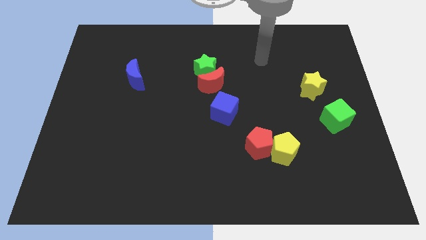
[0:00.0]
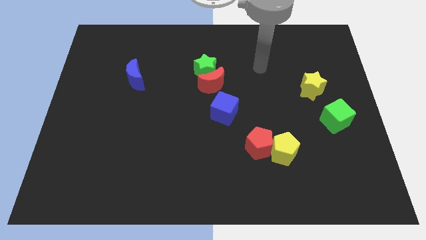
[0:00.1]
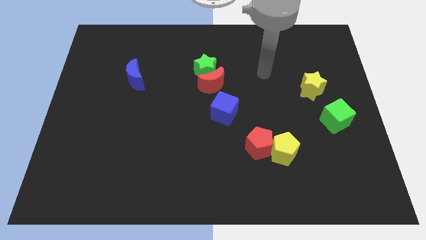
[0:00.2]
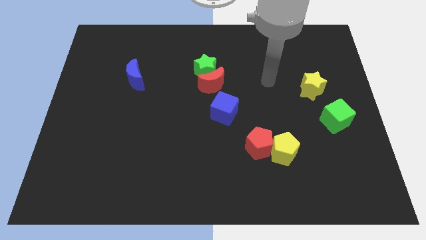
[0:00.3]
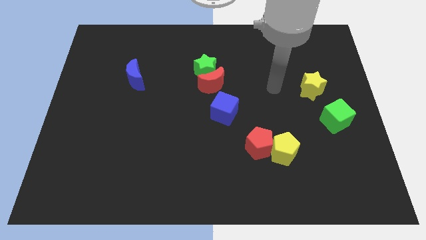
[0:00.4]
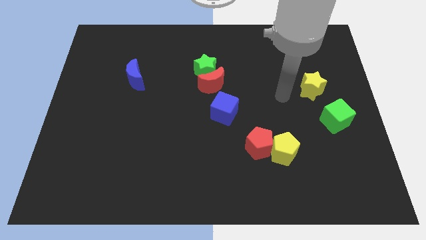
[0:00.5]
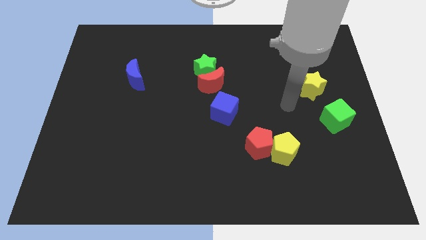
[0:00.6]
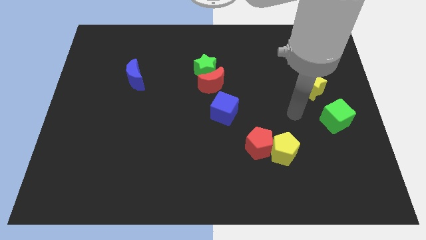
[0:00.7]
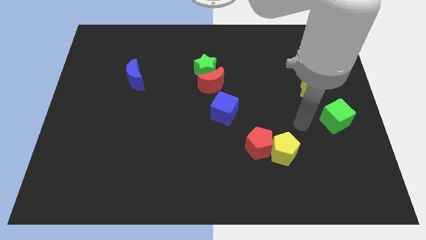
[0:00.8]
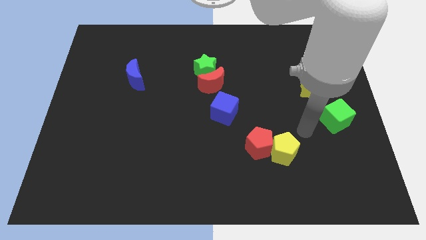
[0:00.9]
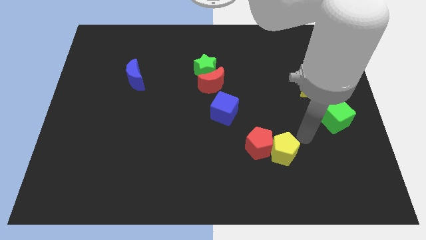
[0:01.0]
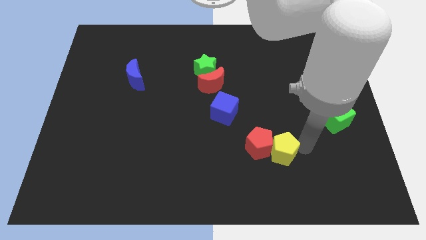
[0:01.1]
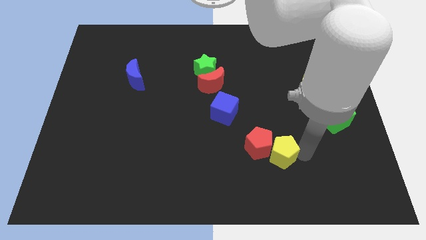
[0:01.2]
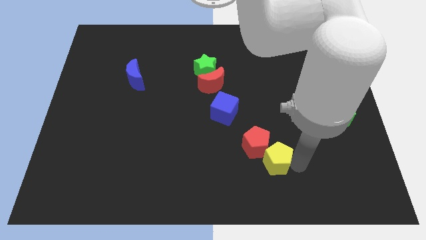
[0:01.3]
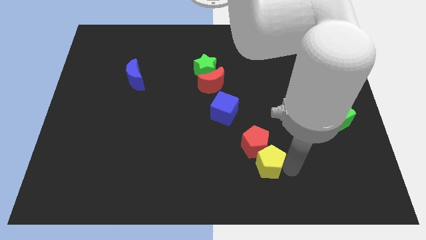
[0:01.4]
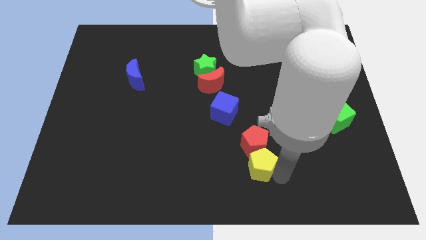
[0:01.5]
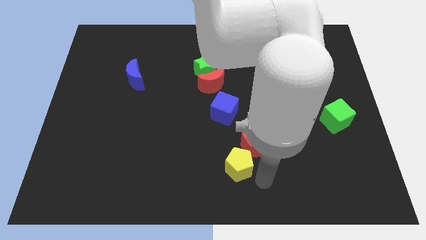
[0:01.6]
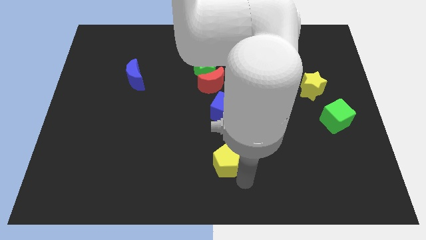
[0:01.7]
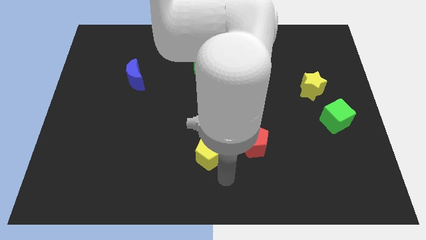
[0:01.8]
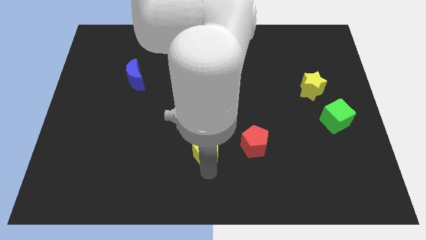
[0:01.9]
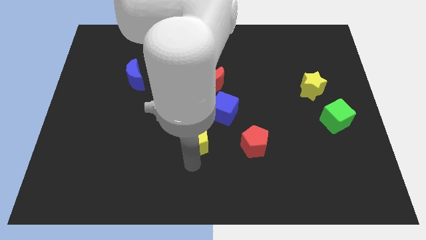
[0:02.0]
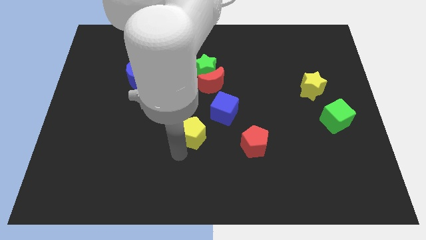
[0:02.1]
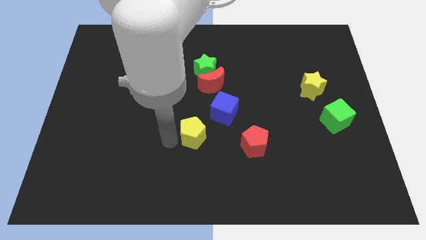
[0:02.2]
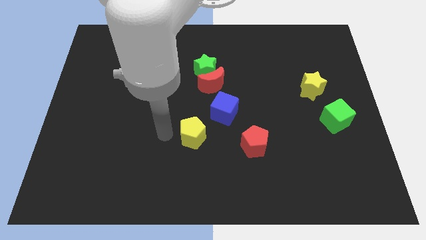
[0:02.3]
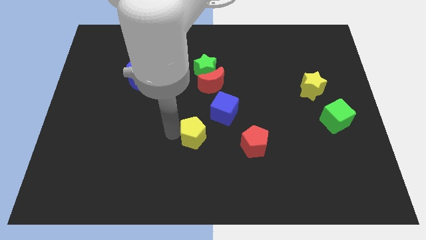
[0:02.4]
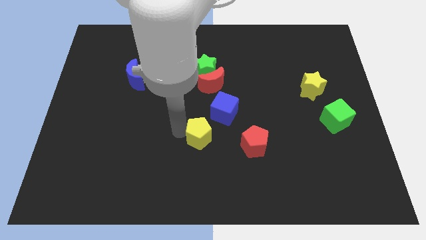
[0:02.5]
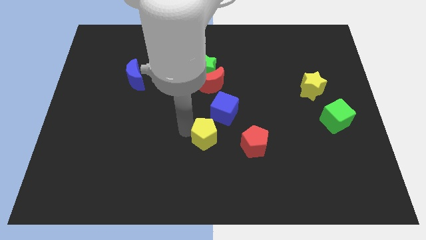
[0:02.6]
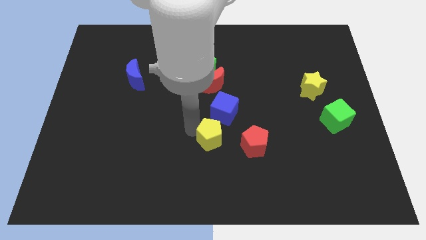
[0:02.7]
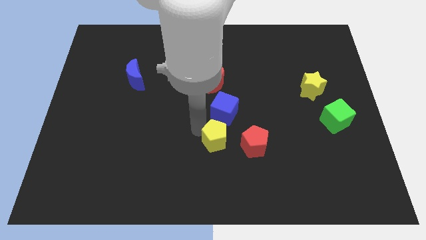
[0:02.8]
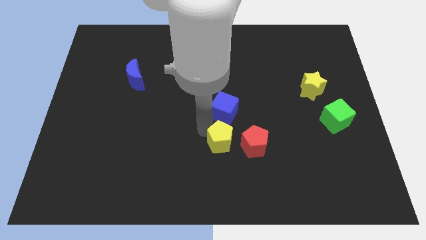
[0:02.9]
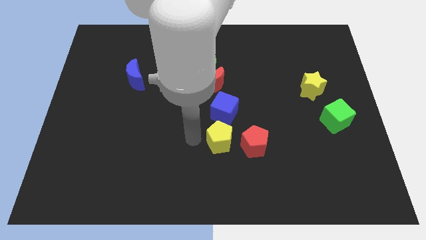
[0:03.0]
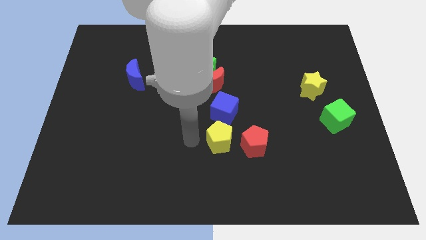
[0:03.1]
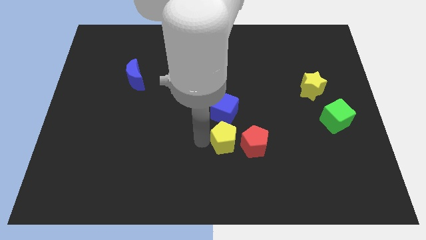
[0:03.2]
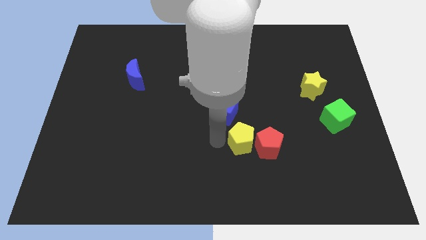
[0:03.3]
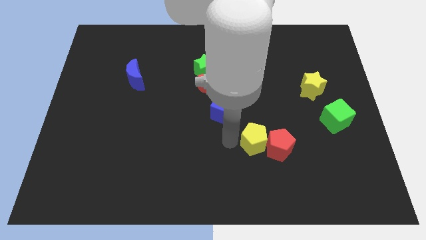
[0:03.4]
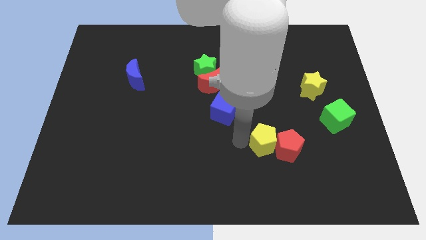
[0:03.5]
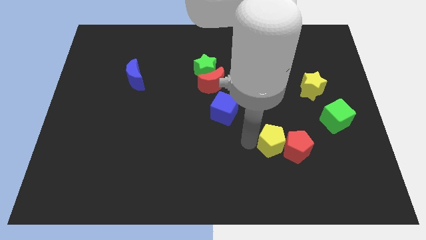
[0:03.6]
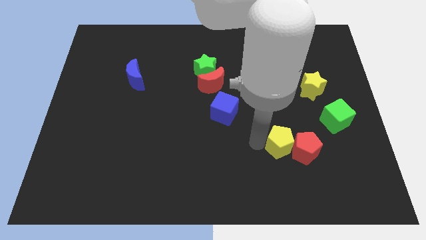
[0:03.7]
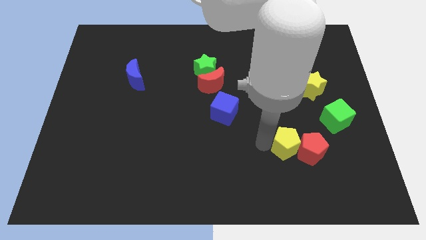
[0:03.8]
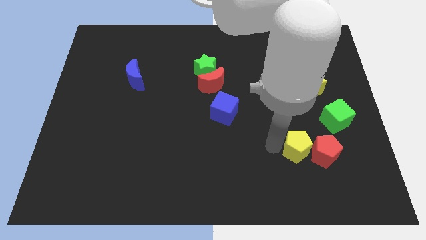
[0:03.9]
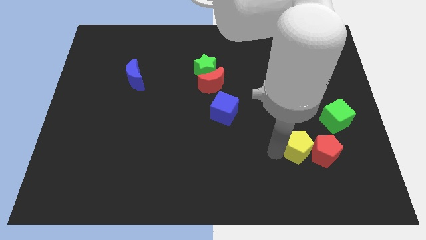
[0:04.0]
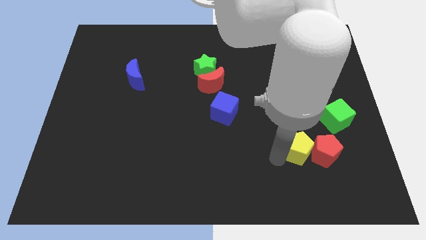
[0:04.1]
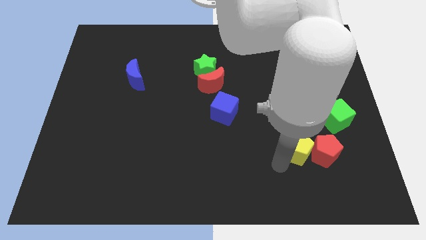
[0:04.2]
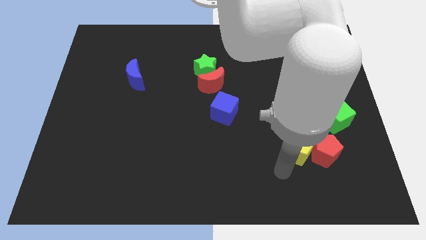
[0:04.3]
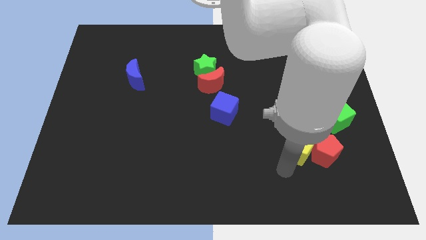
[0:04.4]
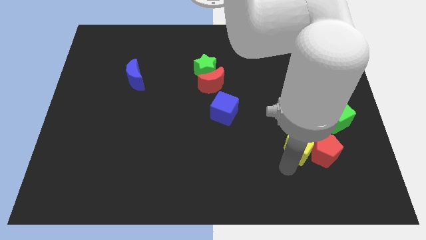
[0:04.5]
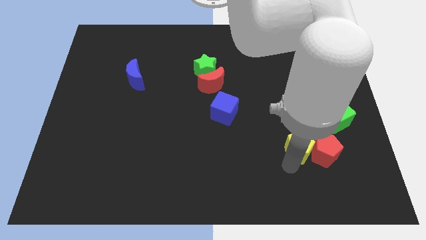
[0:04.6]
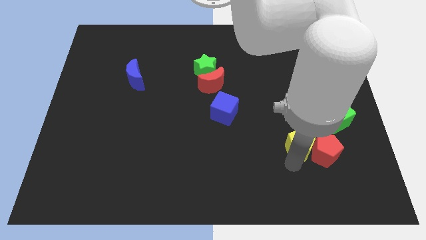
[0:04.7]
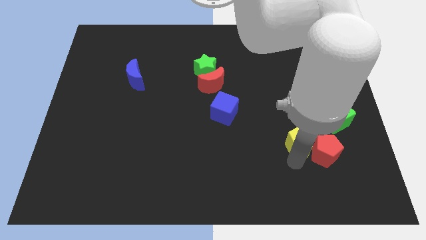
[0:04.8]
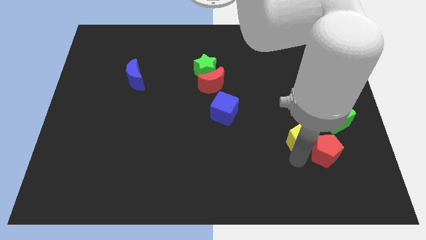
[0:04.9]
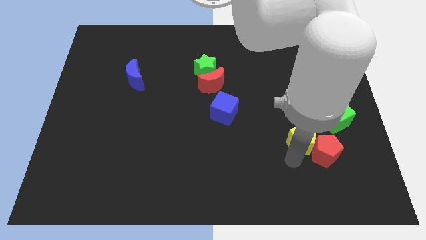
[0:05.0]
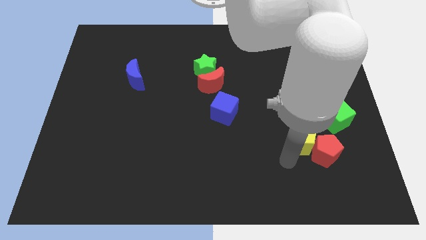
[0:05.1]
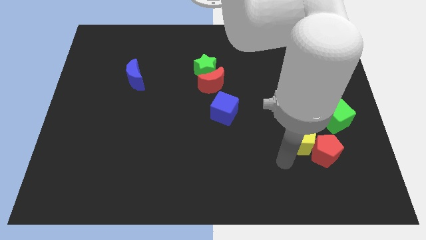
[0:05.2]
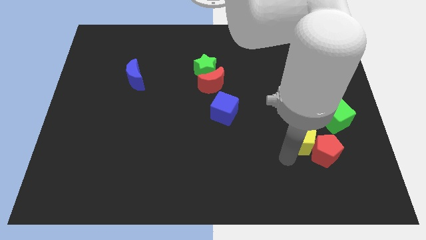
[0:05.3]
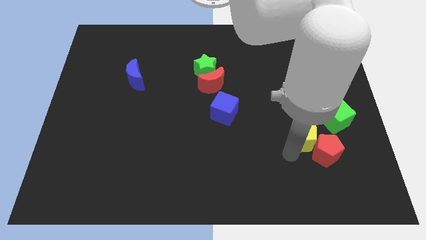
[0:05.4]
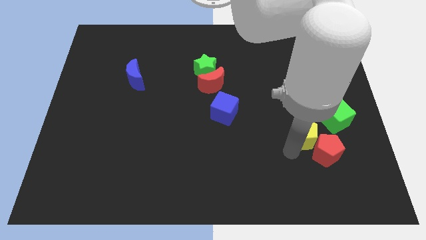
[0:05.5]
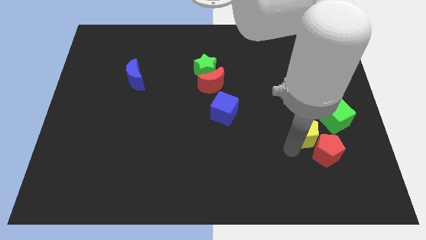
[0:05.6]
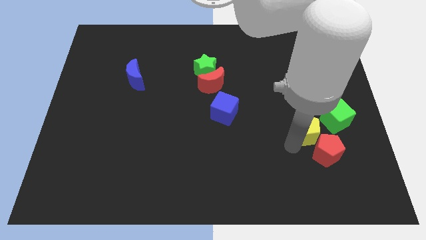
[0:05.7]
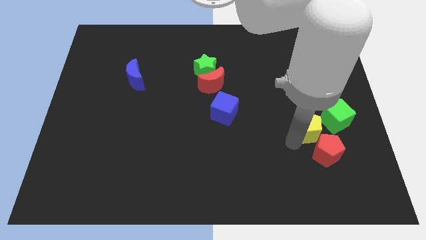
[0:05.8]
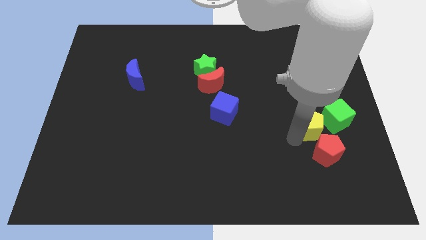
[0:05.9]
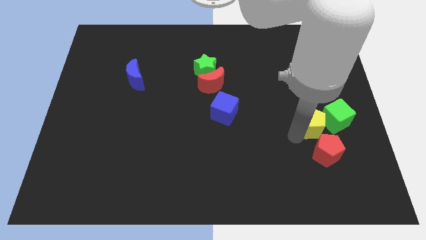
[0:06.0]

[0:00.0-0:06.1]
move the yellow pentagon close to the green cube

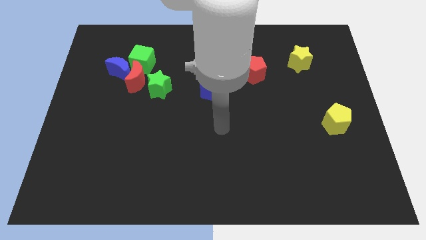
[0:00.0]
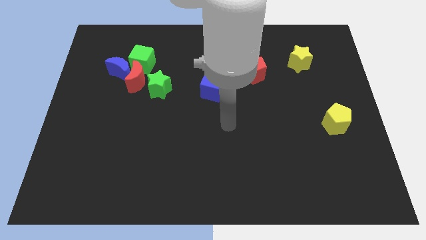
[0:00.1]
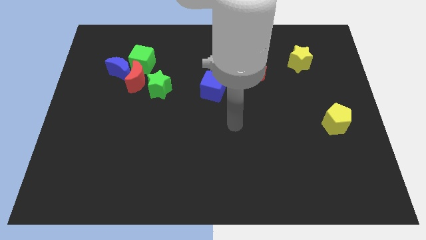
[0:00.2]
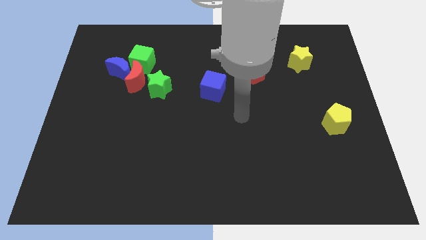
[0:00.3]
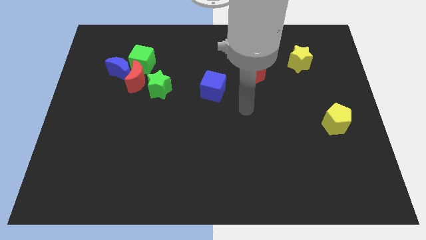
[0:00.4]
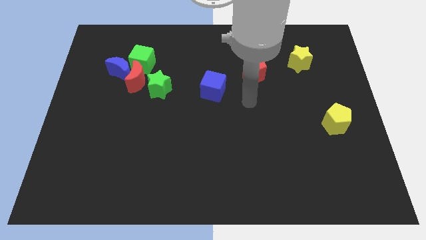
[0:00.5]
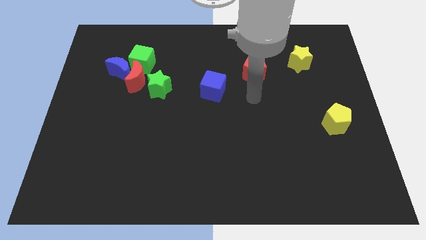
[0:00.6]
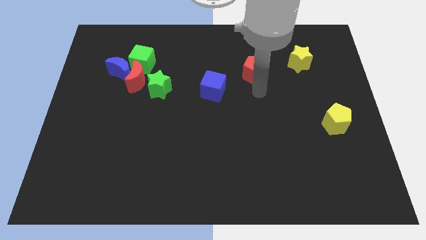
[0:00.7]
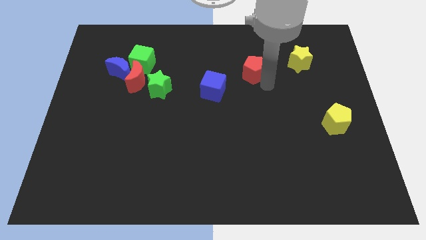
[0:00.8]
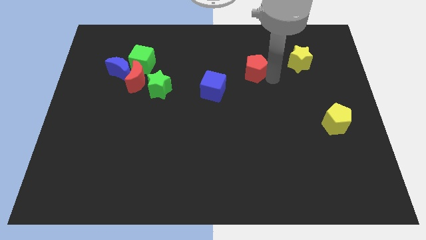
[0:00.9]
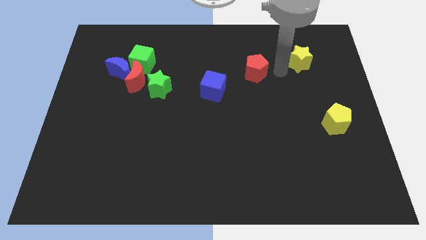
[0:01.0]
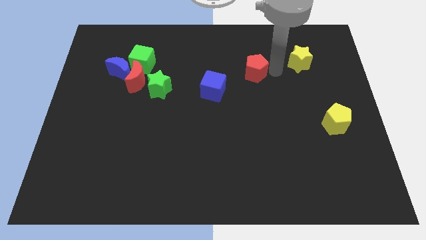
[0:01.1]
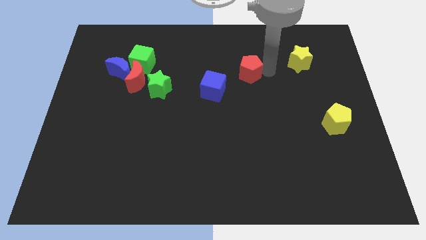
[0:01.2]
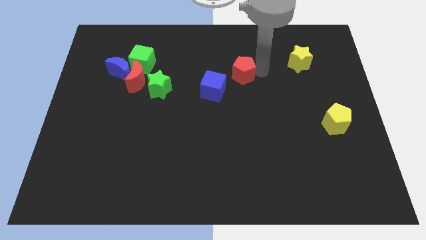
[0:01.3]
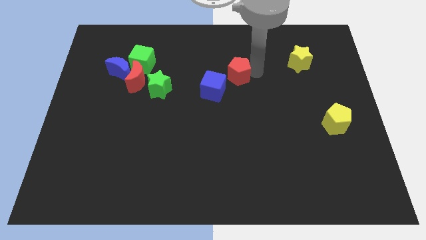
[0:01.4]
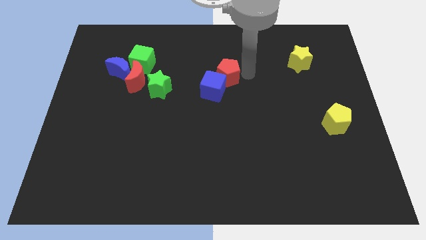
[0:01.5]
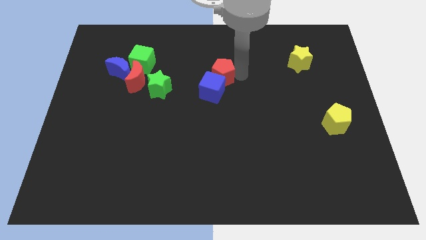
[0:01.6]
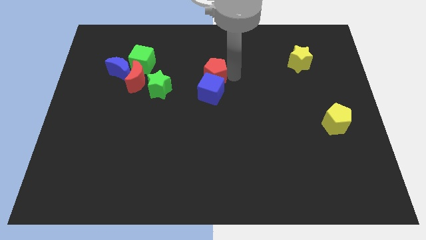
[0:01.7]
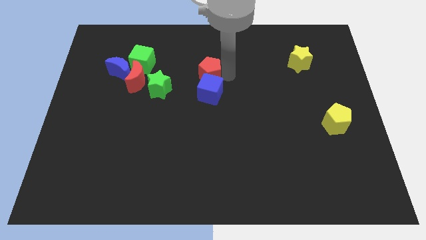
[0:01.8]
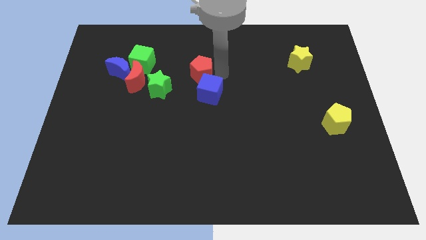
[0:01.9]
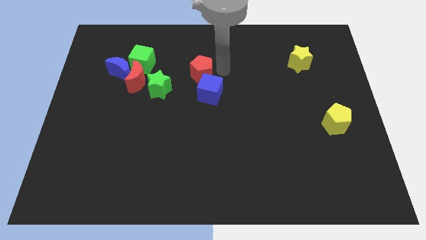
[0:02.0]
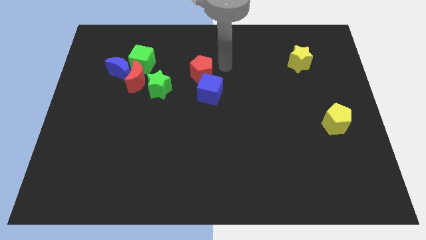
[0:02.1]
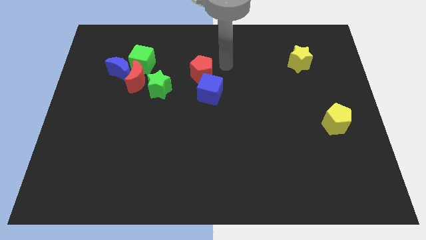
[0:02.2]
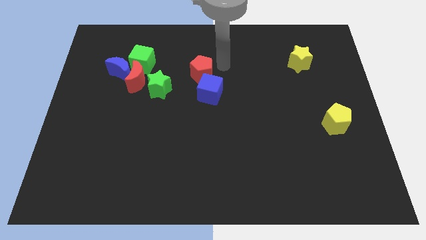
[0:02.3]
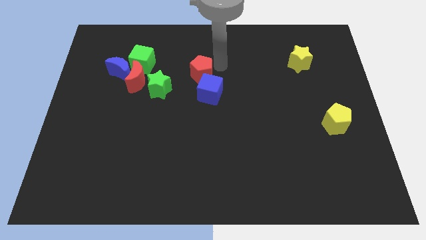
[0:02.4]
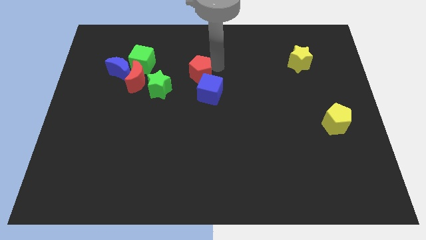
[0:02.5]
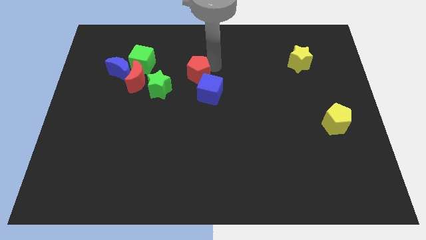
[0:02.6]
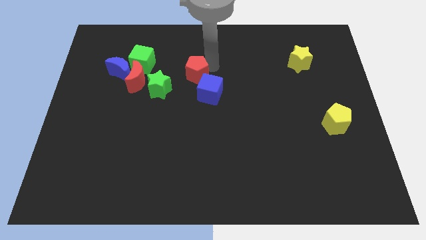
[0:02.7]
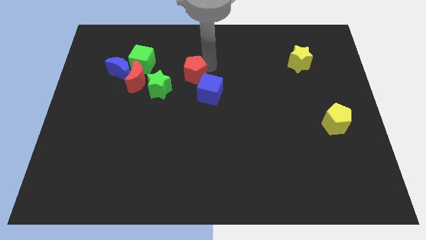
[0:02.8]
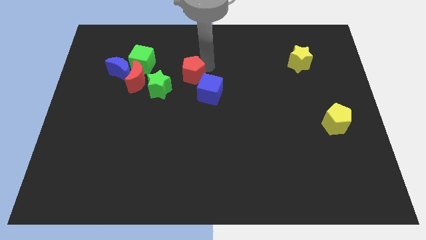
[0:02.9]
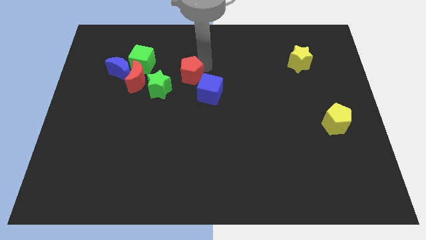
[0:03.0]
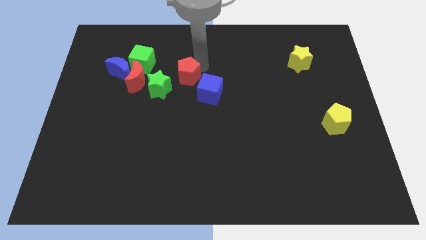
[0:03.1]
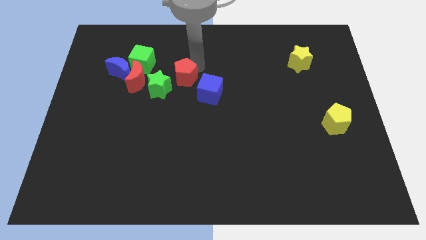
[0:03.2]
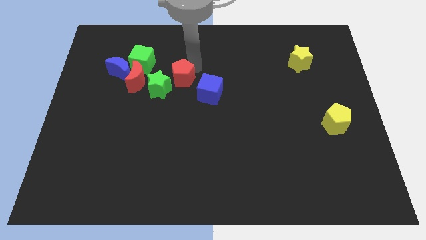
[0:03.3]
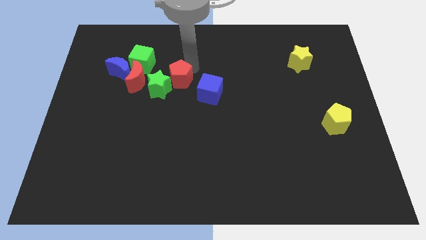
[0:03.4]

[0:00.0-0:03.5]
slide the red pentagon next to the green star
